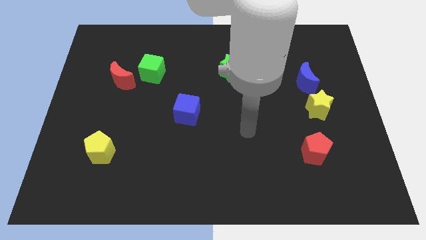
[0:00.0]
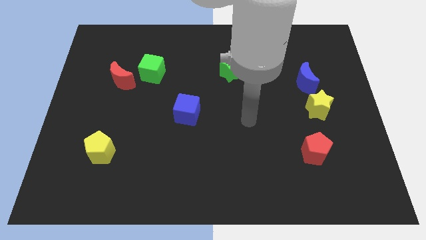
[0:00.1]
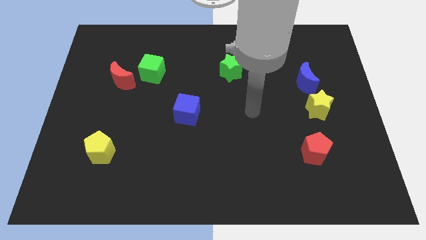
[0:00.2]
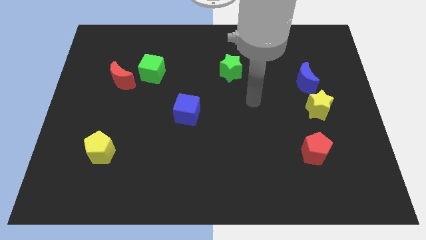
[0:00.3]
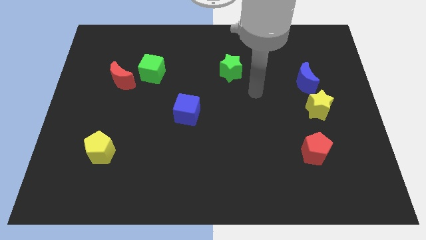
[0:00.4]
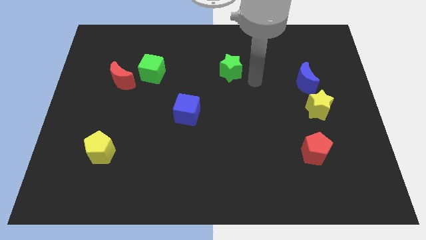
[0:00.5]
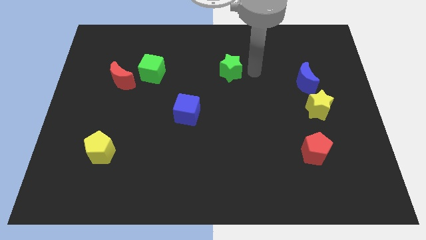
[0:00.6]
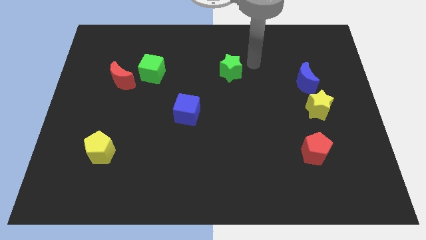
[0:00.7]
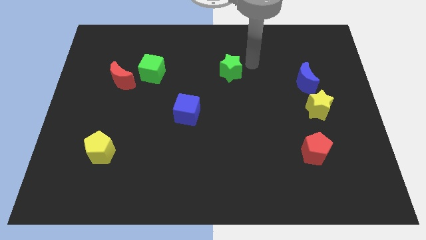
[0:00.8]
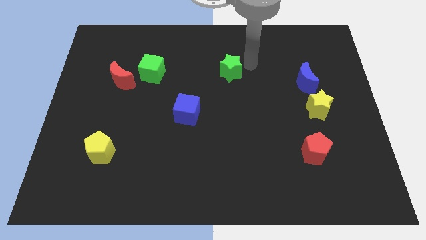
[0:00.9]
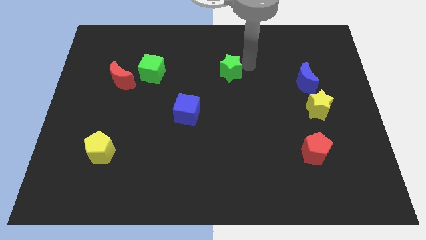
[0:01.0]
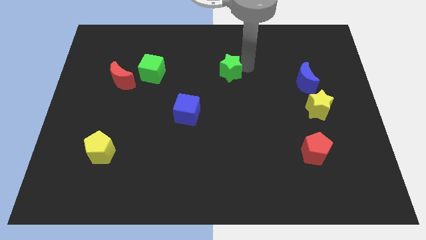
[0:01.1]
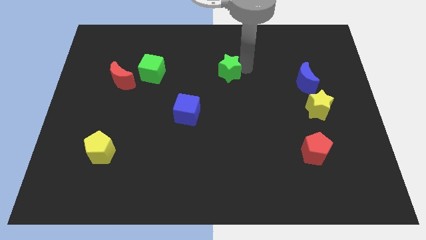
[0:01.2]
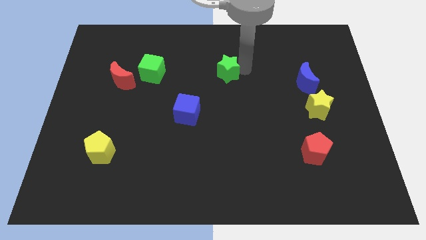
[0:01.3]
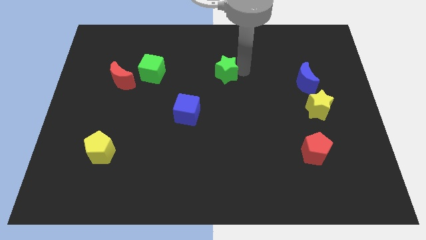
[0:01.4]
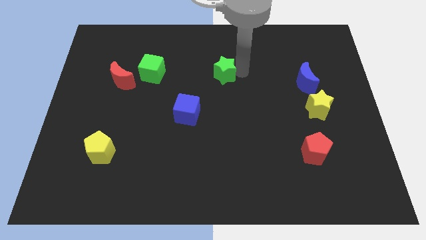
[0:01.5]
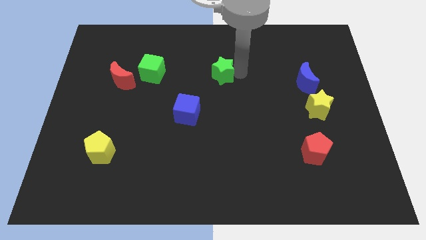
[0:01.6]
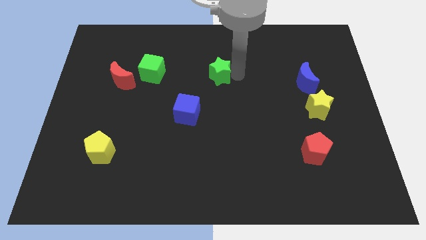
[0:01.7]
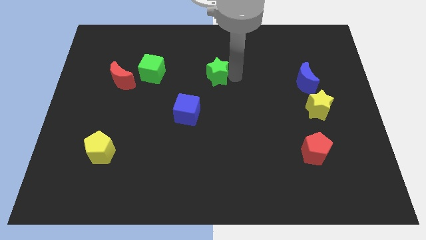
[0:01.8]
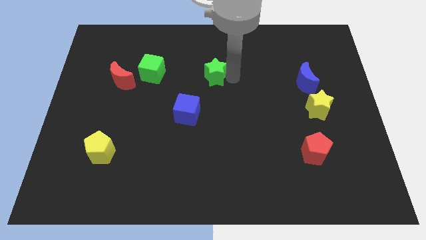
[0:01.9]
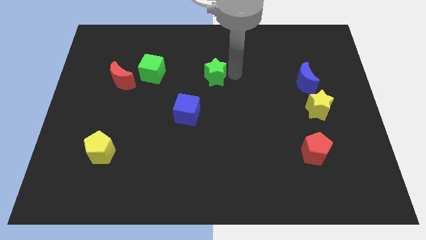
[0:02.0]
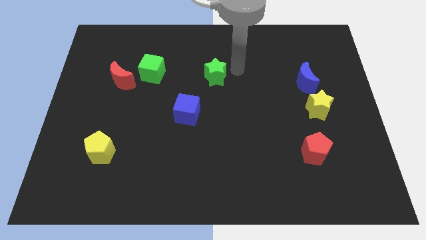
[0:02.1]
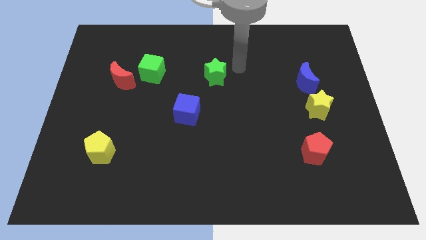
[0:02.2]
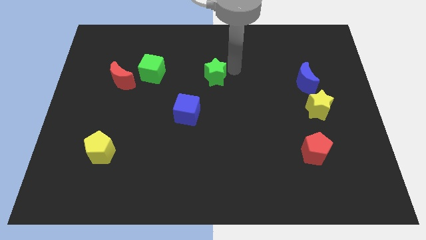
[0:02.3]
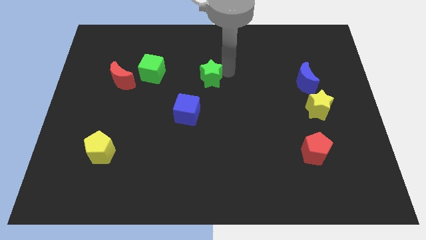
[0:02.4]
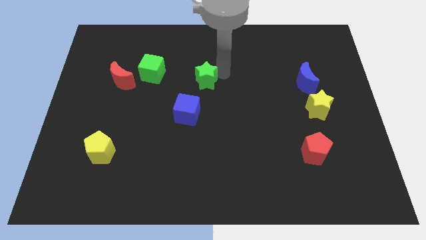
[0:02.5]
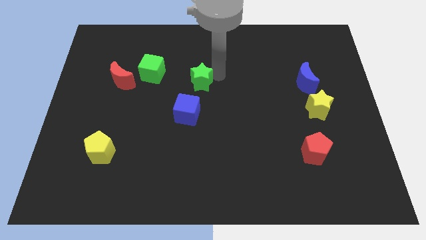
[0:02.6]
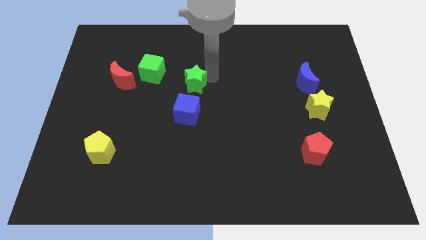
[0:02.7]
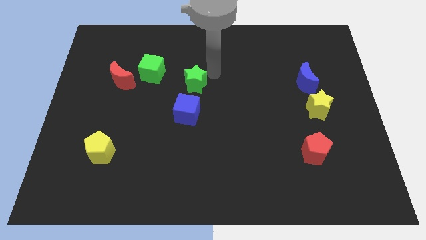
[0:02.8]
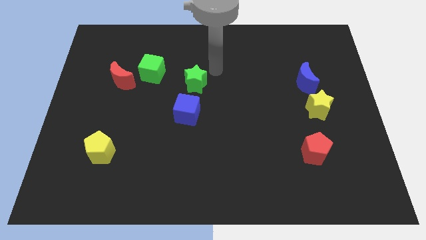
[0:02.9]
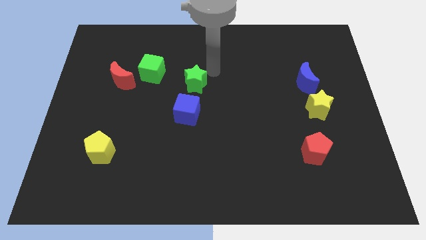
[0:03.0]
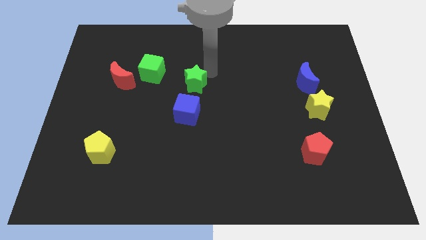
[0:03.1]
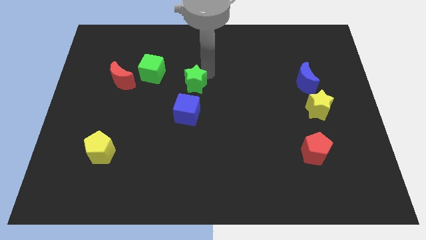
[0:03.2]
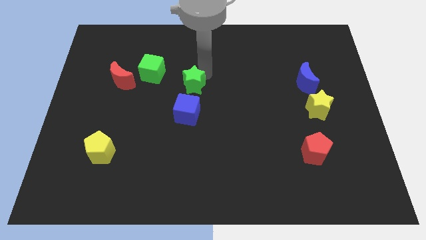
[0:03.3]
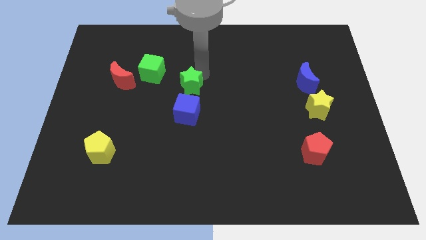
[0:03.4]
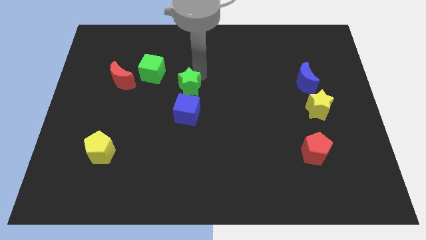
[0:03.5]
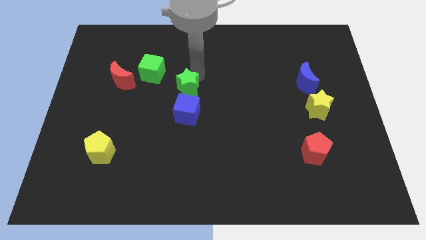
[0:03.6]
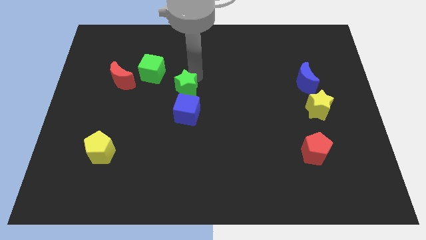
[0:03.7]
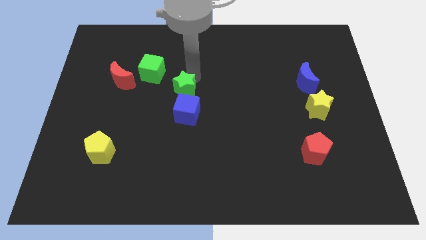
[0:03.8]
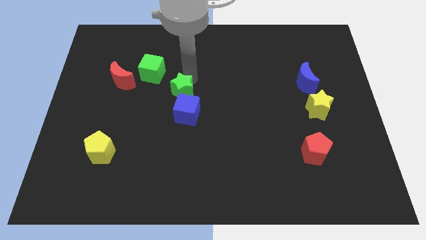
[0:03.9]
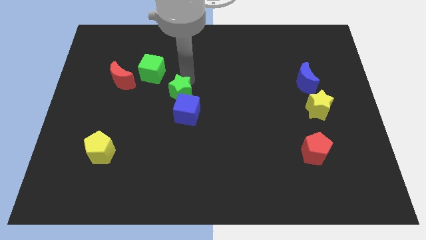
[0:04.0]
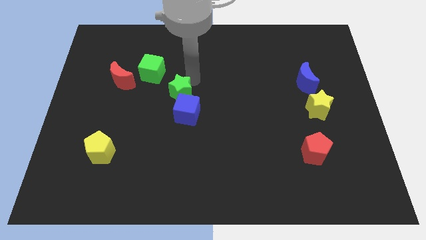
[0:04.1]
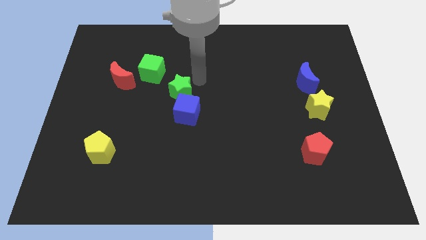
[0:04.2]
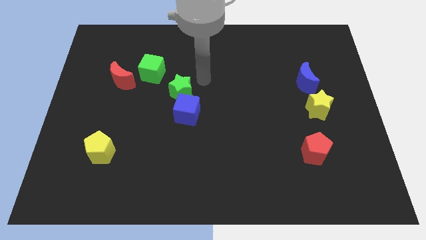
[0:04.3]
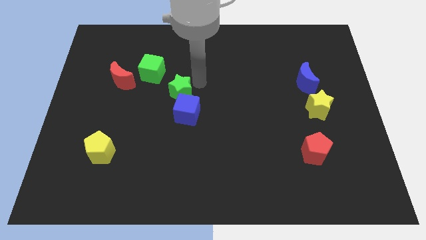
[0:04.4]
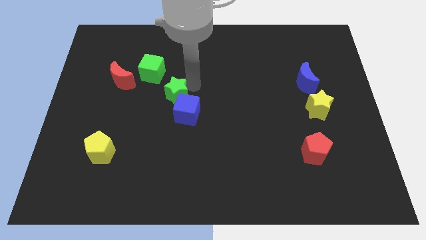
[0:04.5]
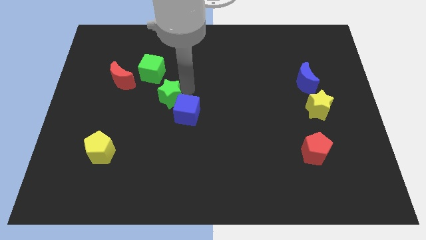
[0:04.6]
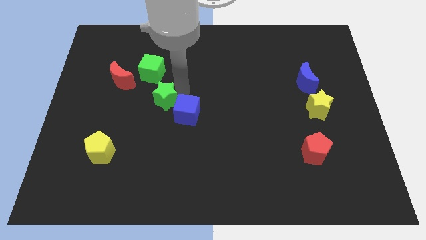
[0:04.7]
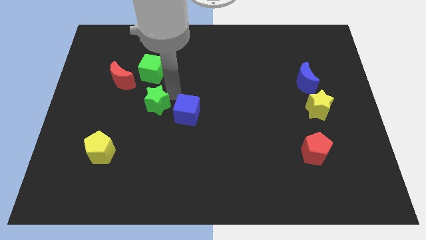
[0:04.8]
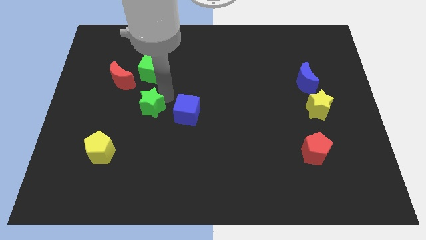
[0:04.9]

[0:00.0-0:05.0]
slide the green star diagonally downwards and left

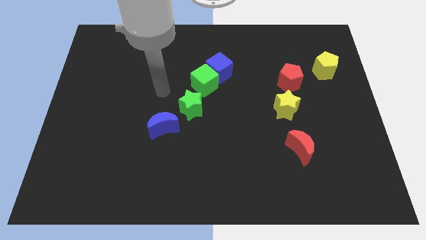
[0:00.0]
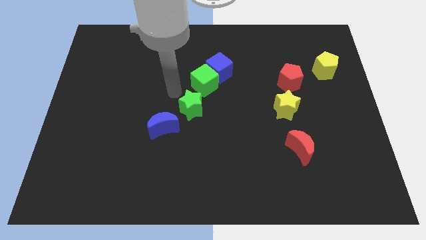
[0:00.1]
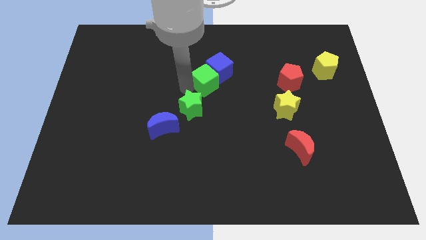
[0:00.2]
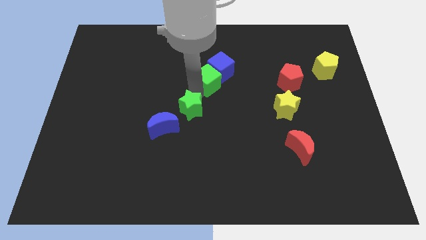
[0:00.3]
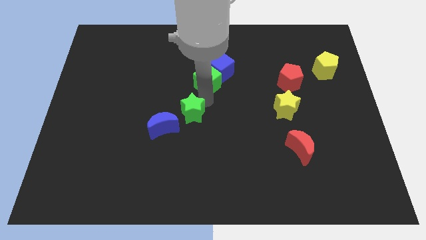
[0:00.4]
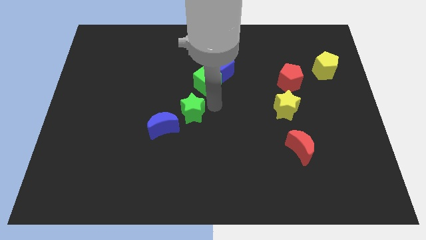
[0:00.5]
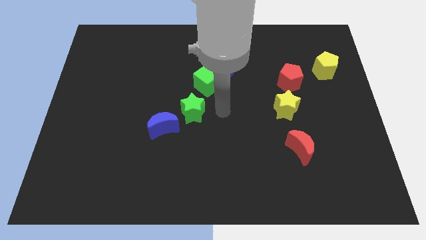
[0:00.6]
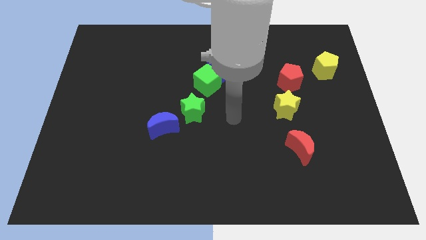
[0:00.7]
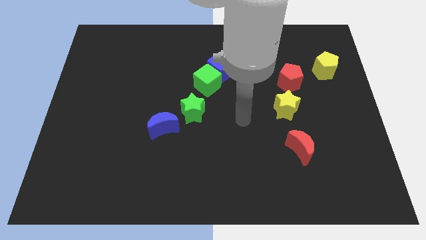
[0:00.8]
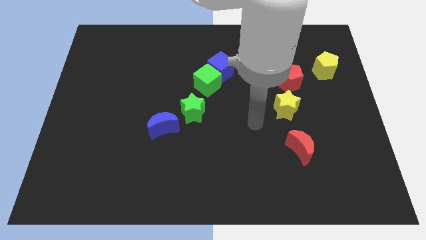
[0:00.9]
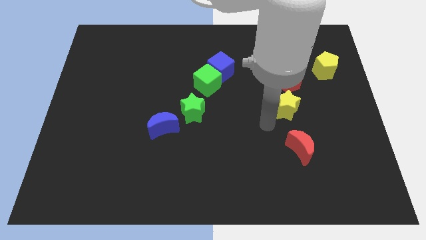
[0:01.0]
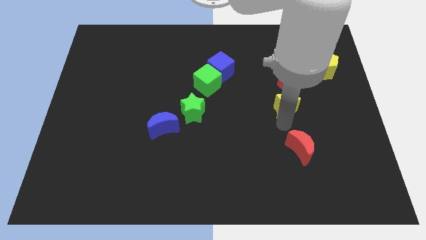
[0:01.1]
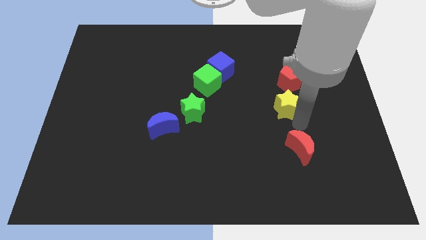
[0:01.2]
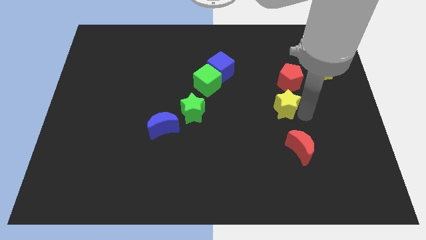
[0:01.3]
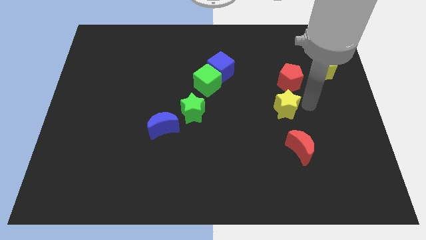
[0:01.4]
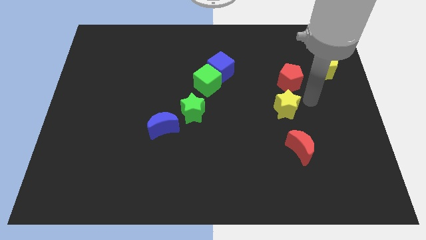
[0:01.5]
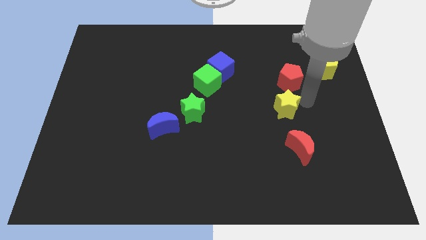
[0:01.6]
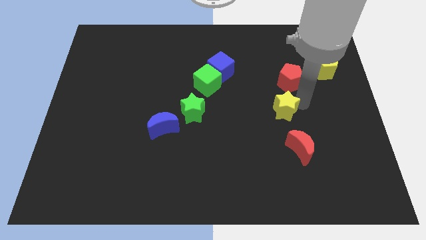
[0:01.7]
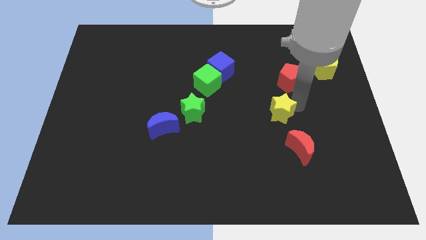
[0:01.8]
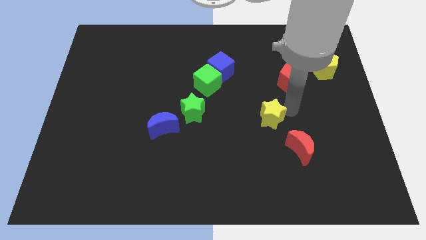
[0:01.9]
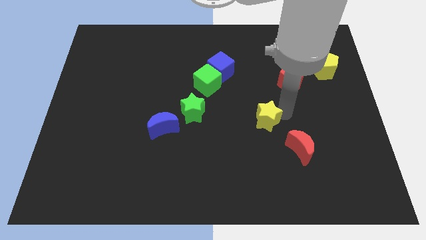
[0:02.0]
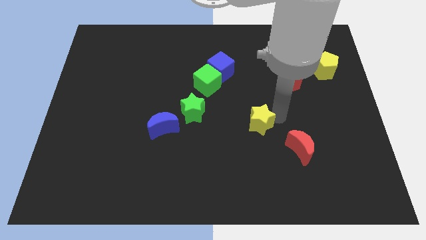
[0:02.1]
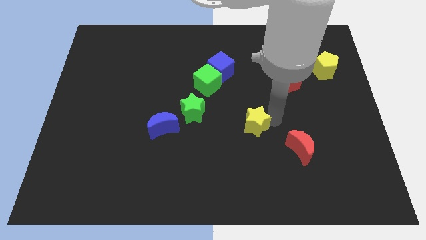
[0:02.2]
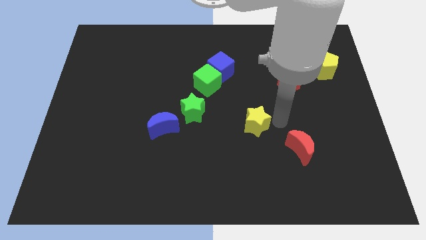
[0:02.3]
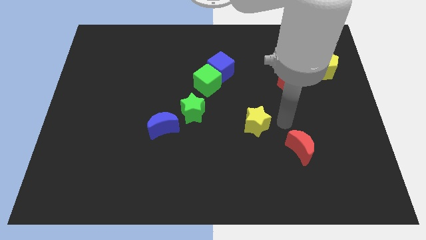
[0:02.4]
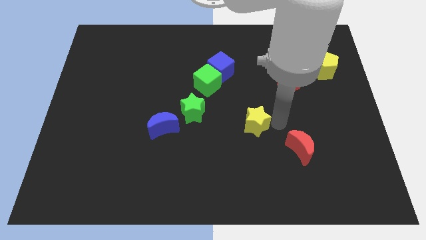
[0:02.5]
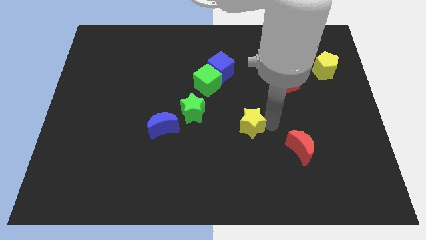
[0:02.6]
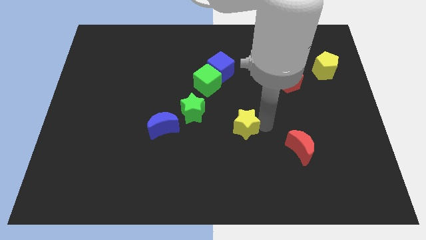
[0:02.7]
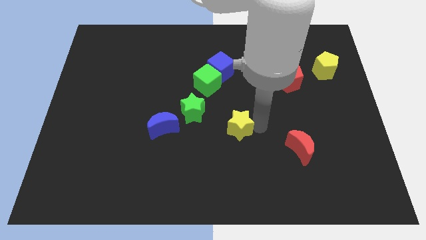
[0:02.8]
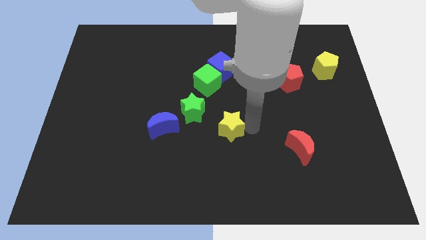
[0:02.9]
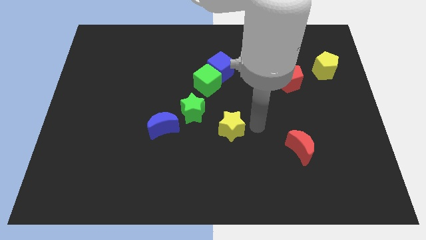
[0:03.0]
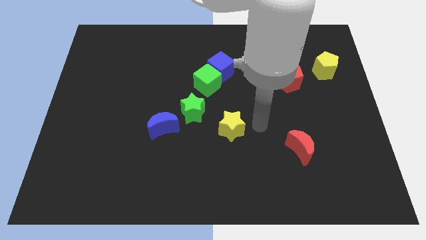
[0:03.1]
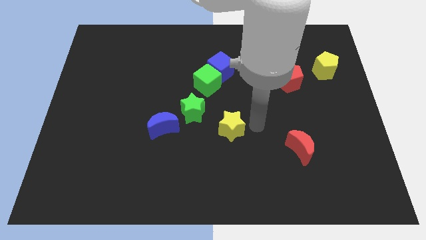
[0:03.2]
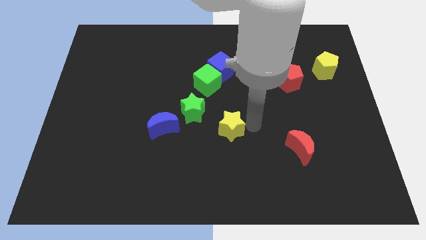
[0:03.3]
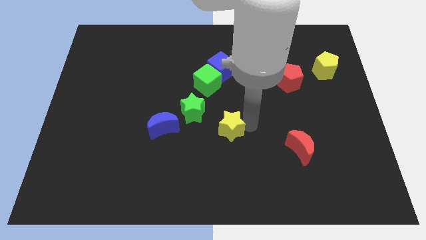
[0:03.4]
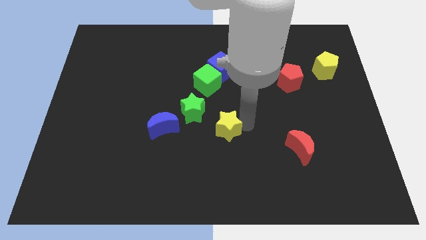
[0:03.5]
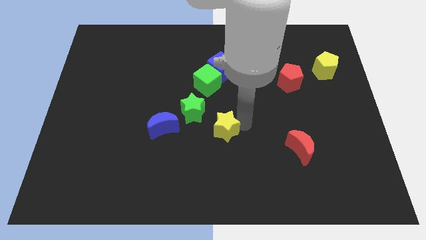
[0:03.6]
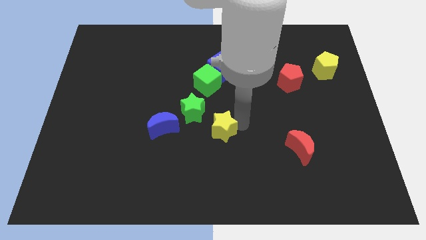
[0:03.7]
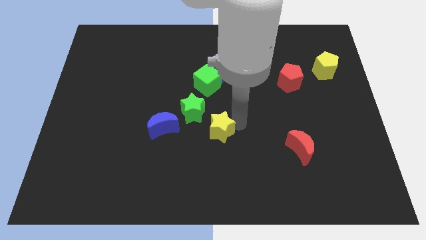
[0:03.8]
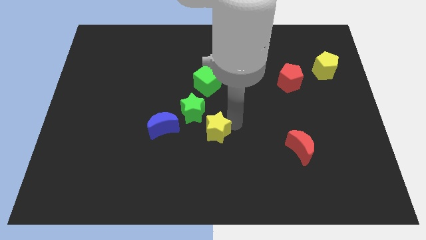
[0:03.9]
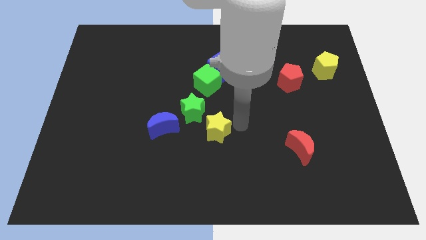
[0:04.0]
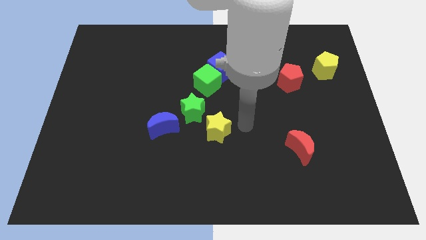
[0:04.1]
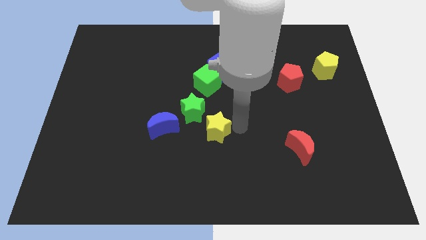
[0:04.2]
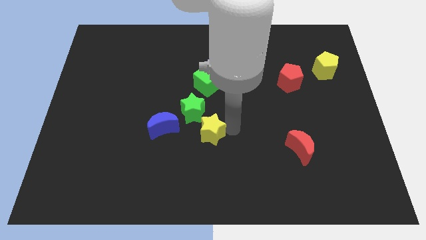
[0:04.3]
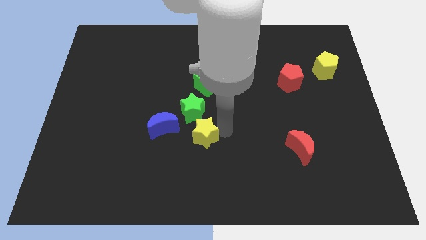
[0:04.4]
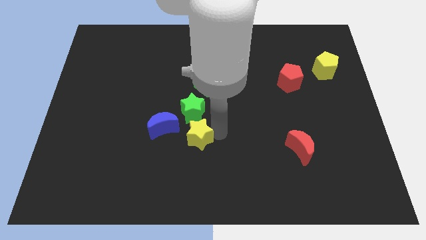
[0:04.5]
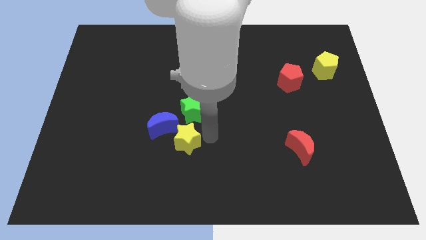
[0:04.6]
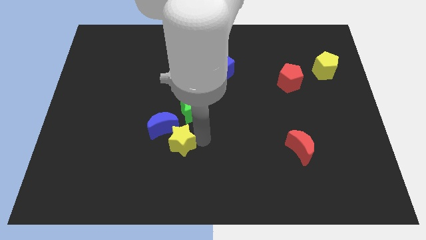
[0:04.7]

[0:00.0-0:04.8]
slide the yellow star left
